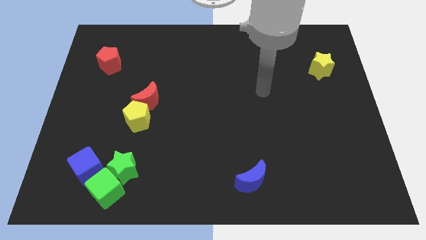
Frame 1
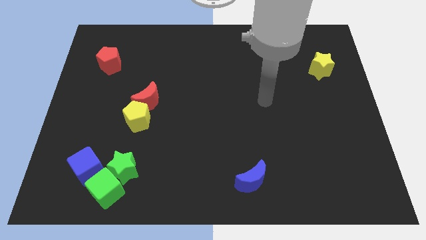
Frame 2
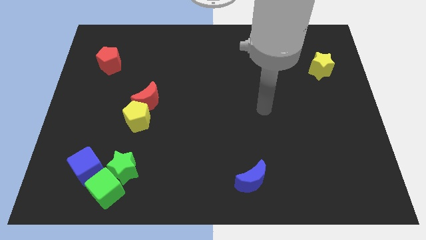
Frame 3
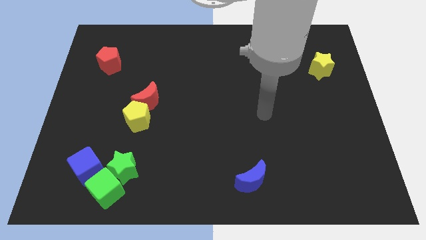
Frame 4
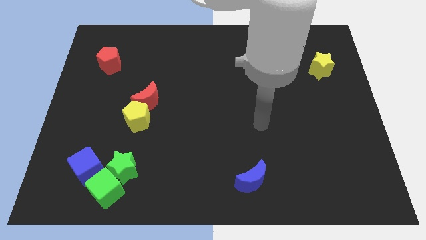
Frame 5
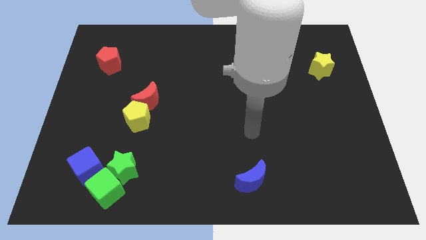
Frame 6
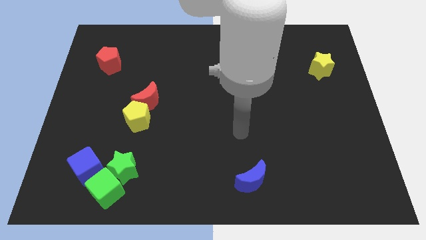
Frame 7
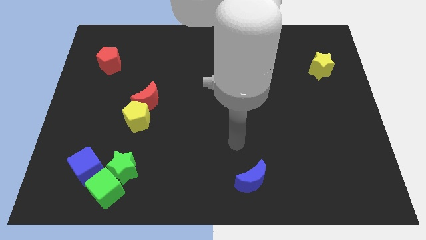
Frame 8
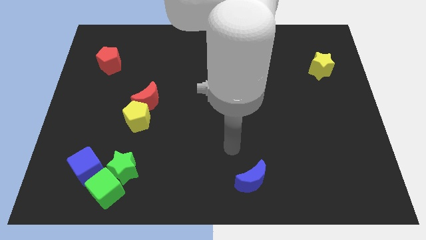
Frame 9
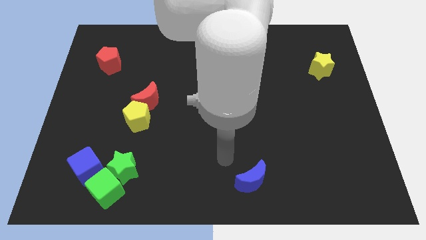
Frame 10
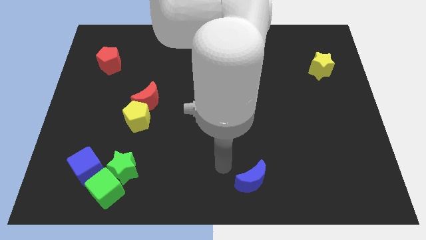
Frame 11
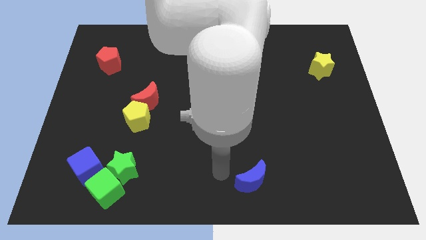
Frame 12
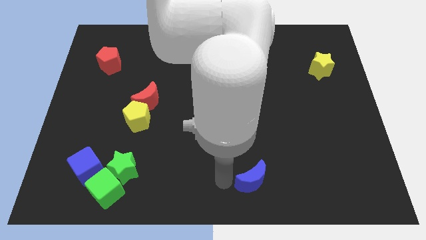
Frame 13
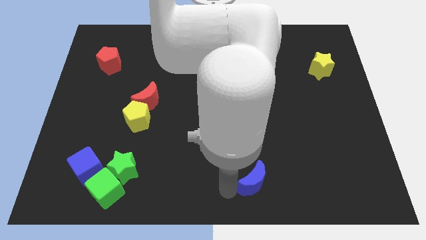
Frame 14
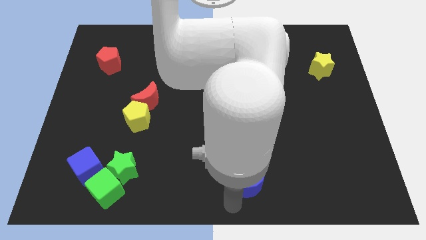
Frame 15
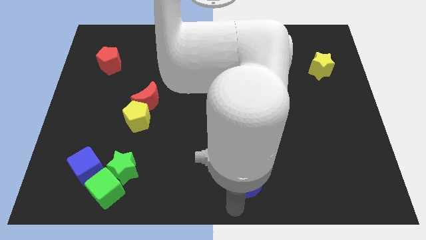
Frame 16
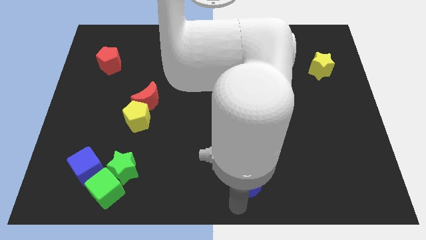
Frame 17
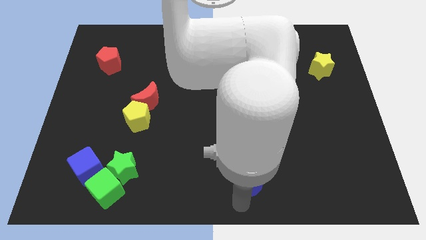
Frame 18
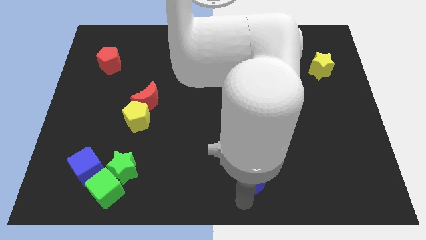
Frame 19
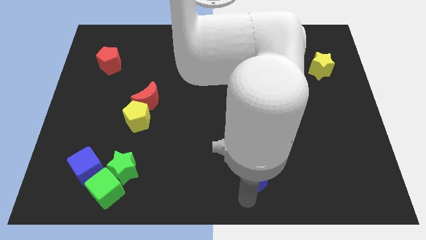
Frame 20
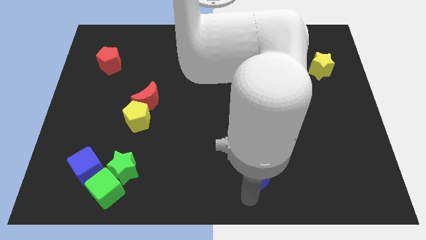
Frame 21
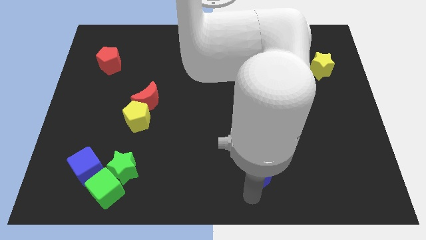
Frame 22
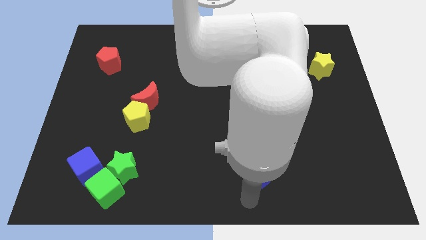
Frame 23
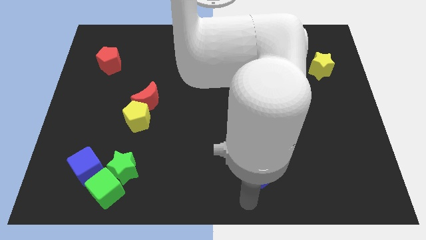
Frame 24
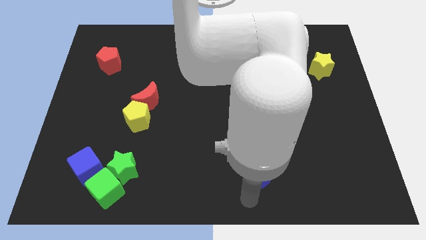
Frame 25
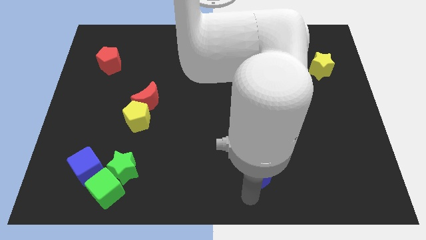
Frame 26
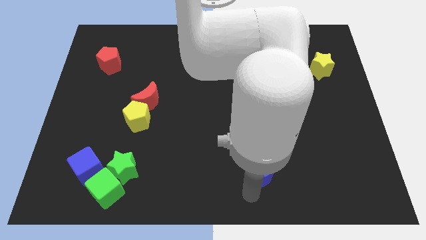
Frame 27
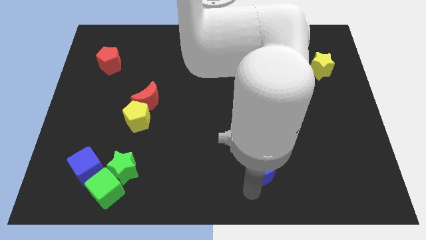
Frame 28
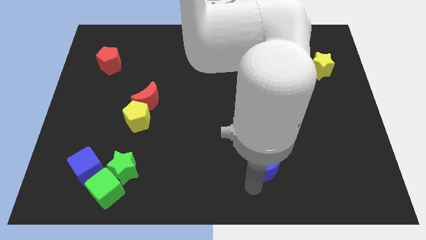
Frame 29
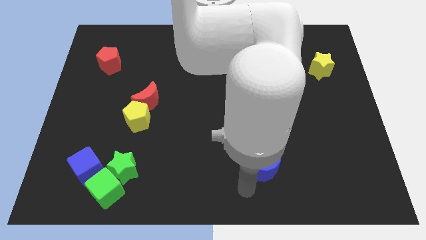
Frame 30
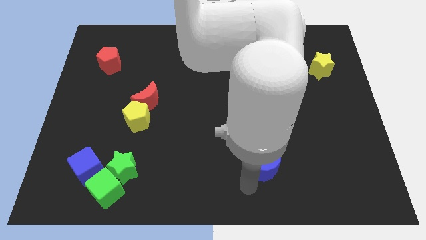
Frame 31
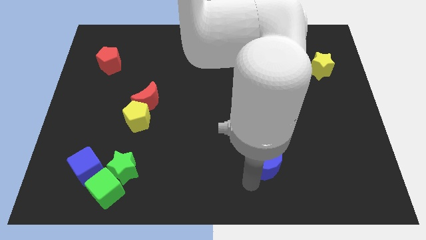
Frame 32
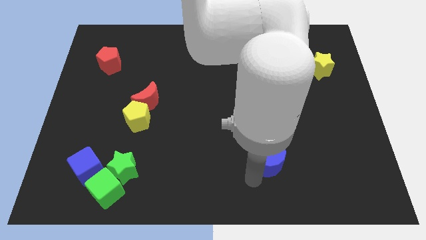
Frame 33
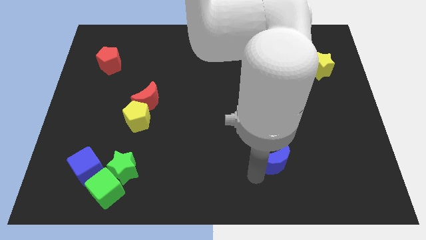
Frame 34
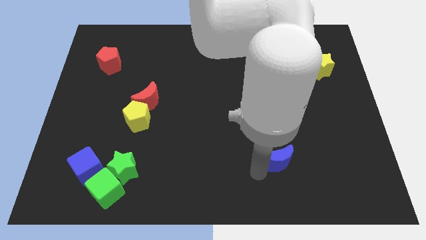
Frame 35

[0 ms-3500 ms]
slide the blue moon upwards and right diagonally a little bit

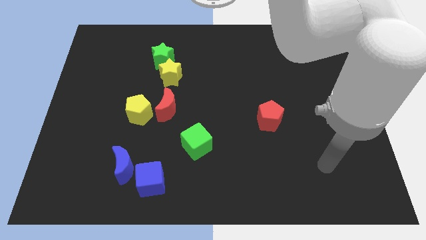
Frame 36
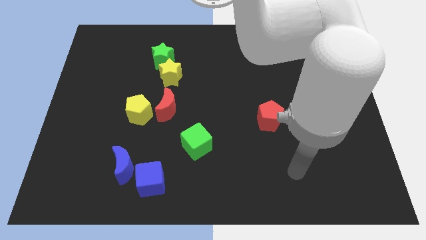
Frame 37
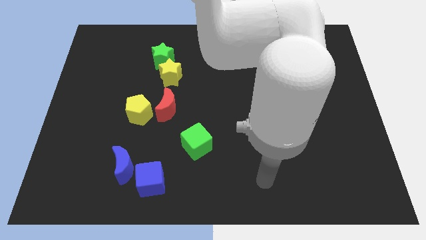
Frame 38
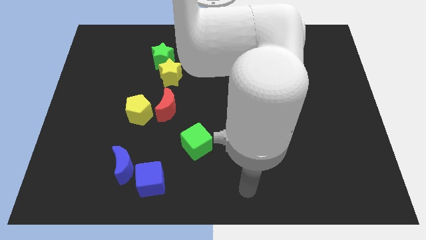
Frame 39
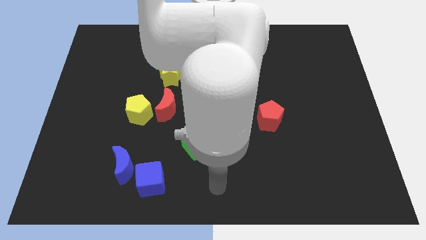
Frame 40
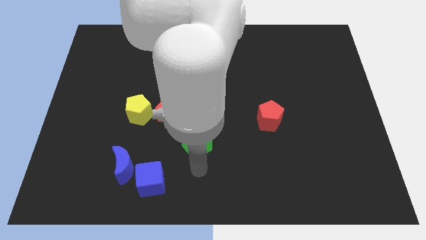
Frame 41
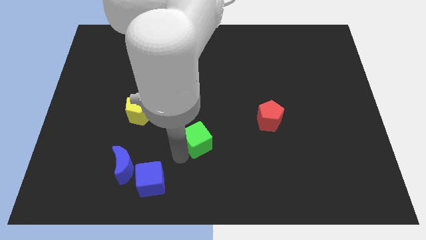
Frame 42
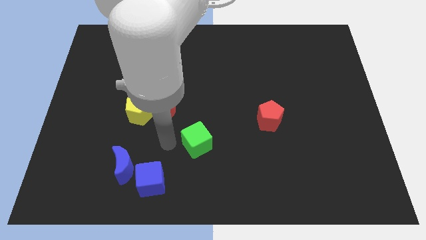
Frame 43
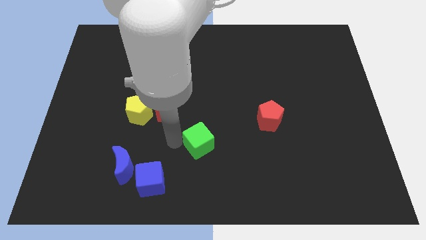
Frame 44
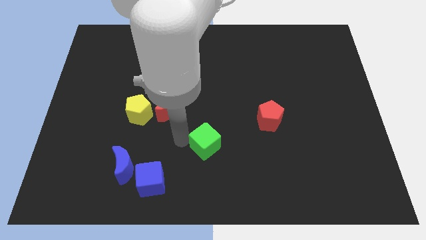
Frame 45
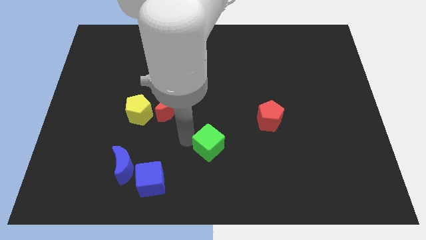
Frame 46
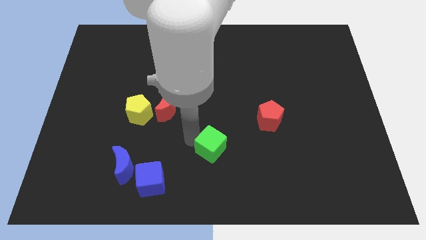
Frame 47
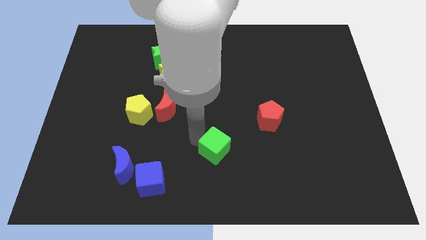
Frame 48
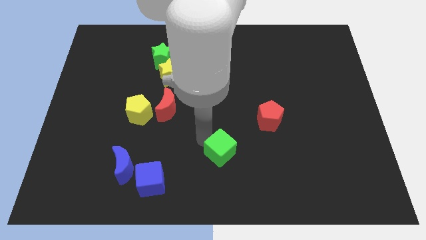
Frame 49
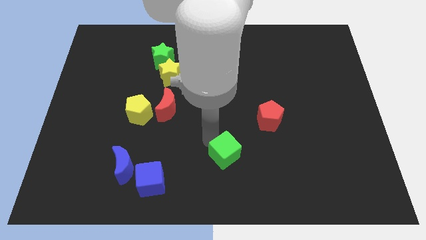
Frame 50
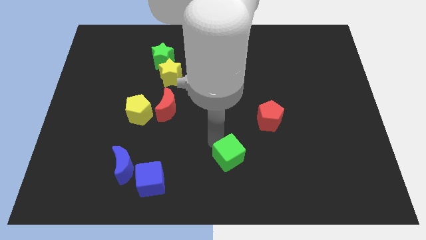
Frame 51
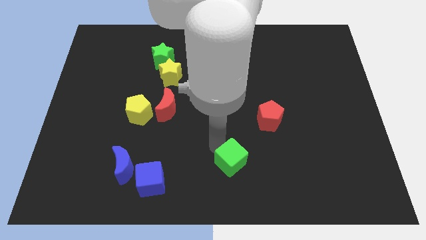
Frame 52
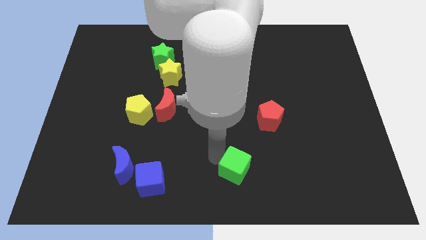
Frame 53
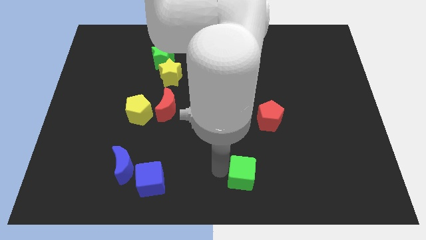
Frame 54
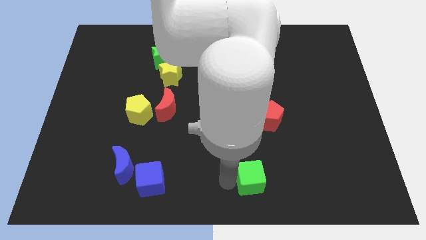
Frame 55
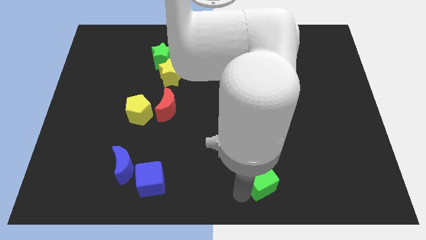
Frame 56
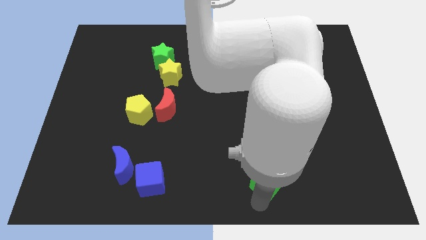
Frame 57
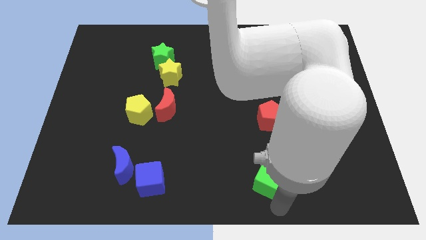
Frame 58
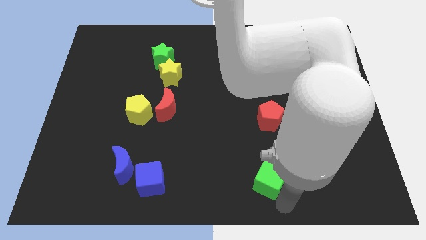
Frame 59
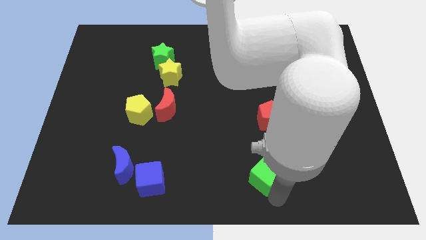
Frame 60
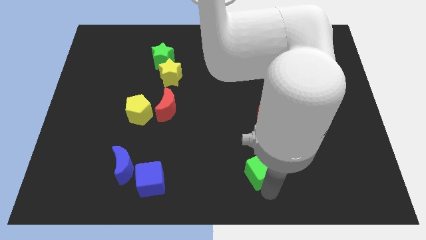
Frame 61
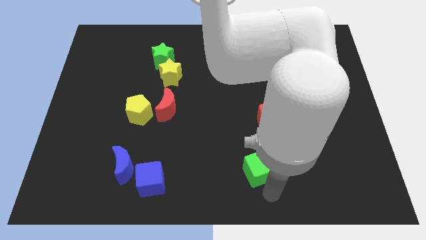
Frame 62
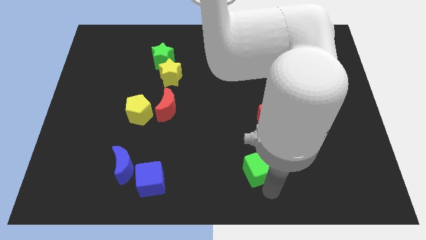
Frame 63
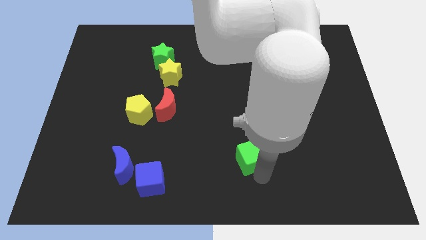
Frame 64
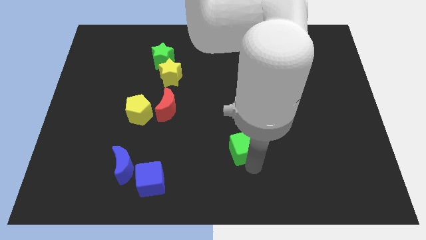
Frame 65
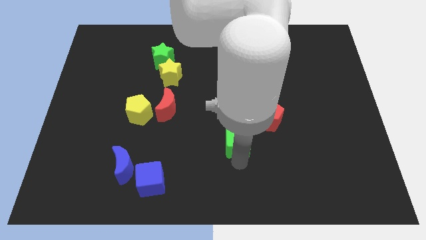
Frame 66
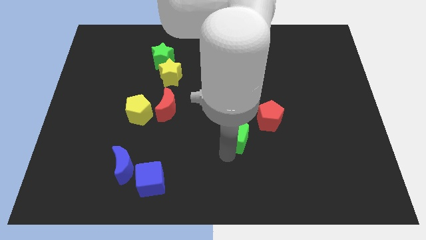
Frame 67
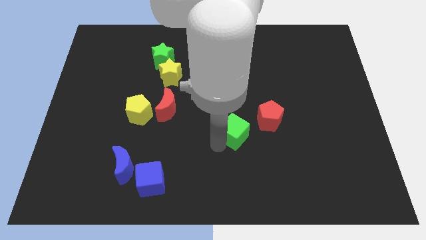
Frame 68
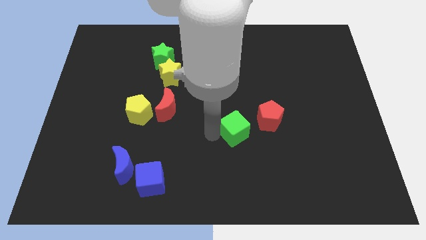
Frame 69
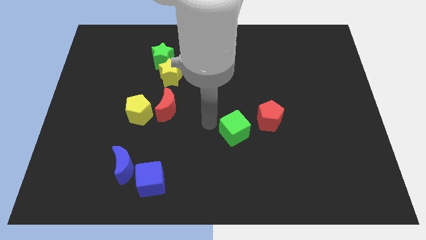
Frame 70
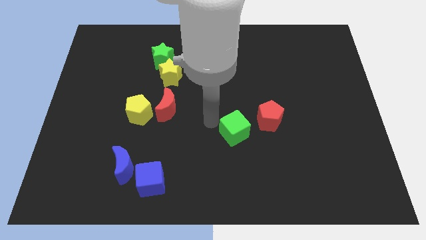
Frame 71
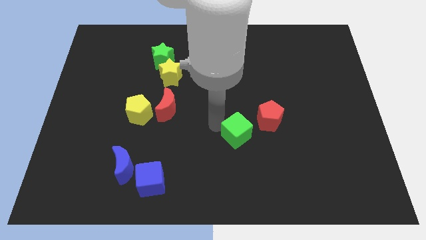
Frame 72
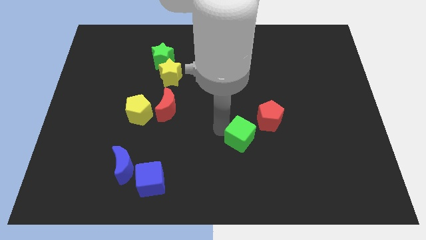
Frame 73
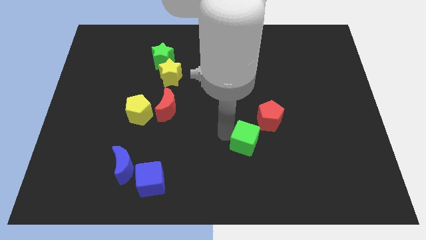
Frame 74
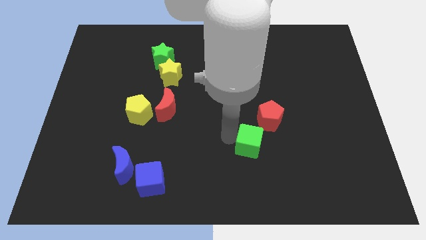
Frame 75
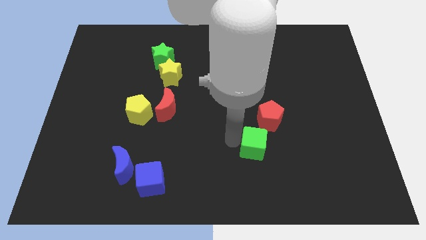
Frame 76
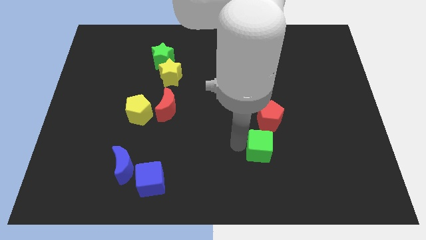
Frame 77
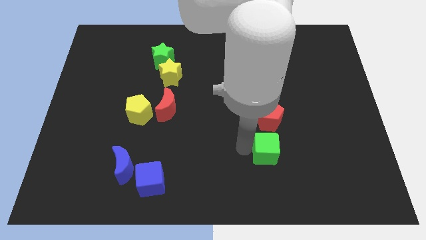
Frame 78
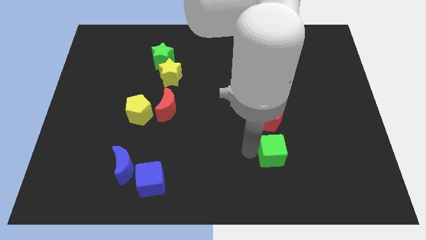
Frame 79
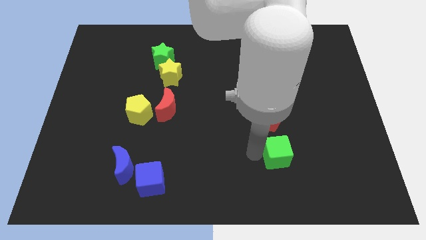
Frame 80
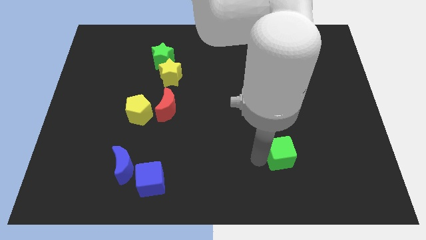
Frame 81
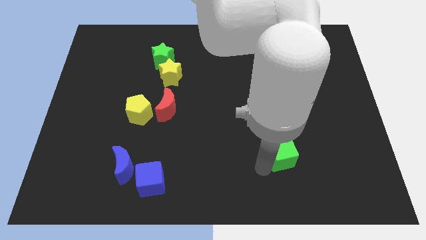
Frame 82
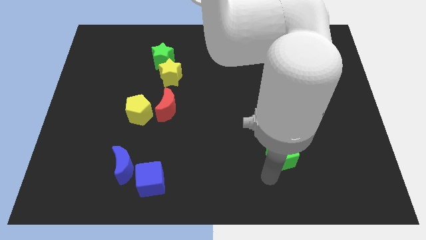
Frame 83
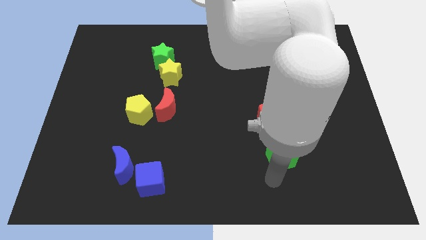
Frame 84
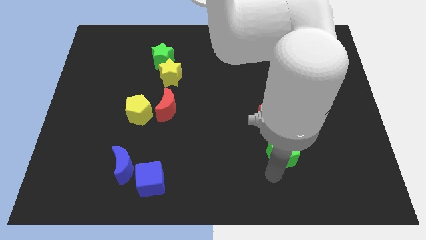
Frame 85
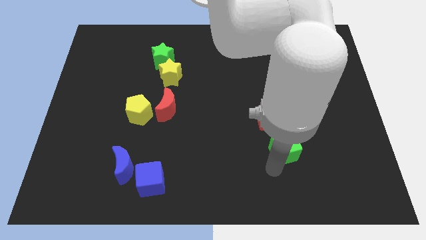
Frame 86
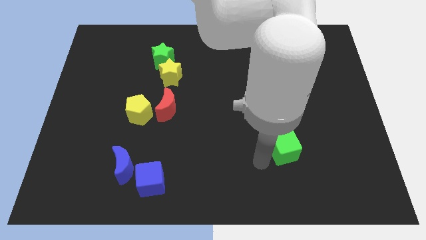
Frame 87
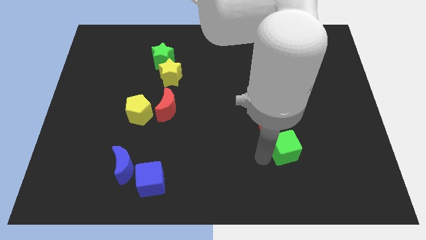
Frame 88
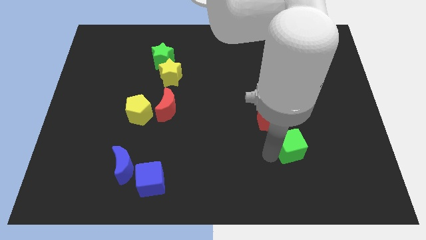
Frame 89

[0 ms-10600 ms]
push the green cube to the right
